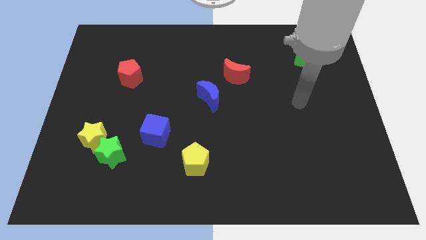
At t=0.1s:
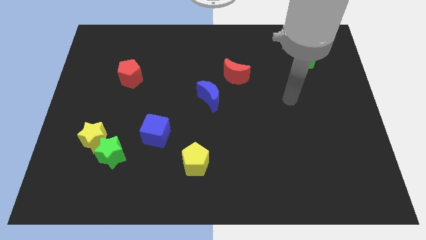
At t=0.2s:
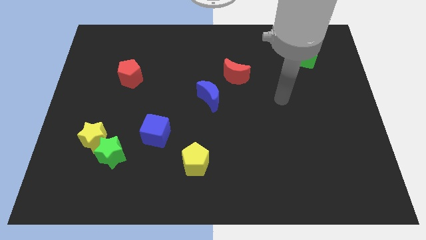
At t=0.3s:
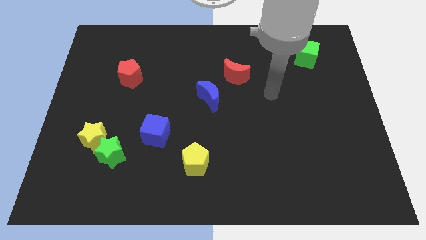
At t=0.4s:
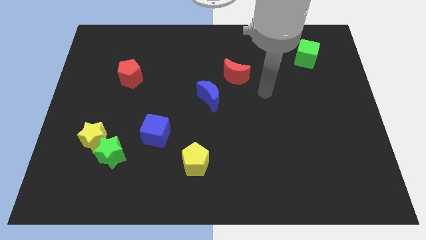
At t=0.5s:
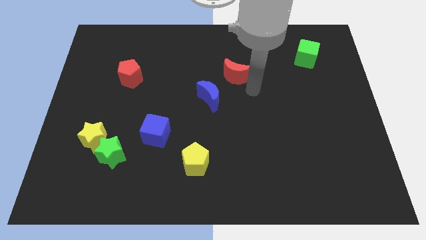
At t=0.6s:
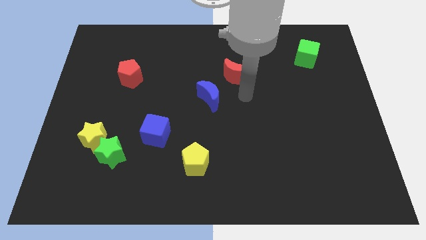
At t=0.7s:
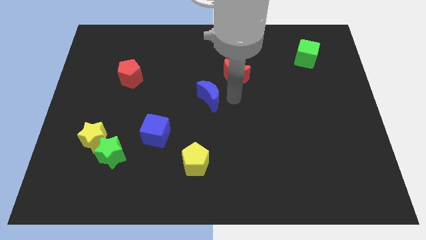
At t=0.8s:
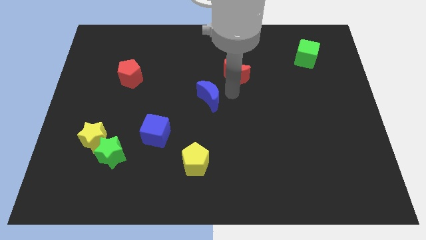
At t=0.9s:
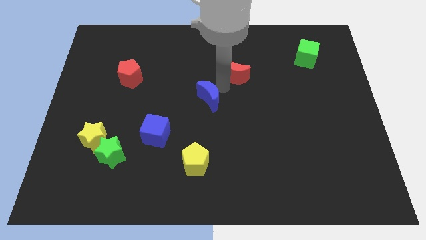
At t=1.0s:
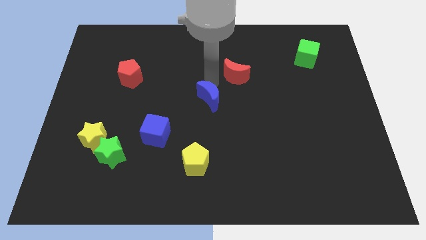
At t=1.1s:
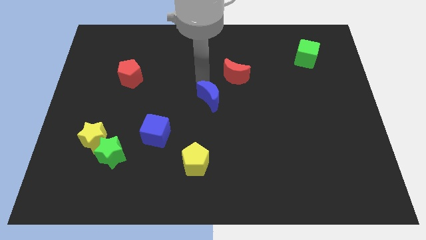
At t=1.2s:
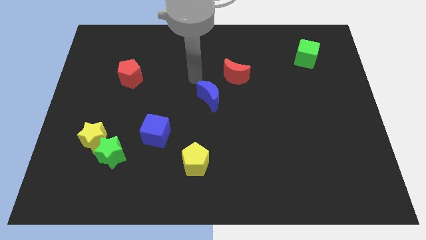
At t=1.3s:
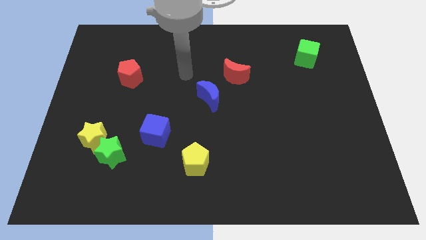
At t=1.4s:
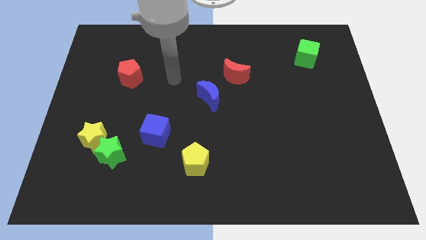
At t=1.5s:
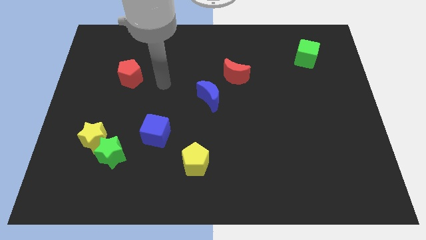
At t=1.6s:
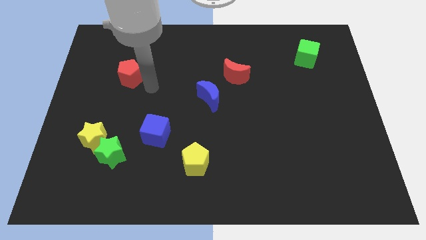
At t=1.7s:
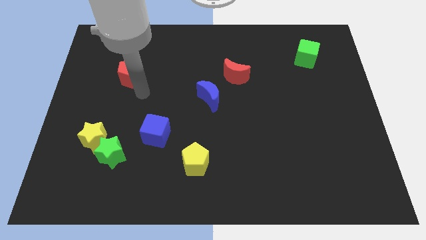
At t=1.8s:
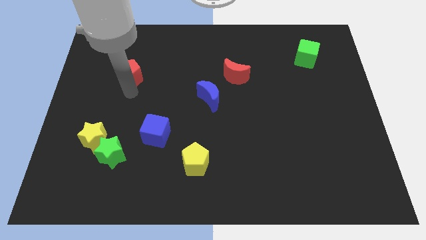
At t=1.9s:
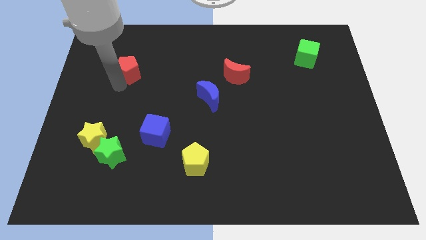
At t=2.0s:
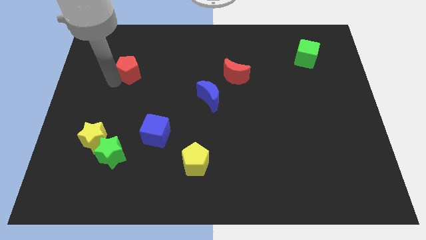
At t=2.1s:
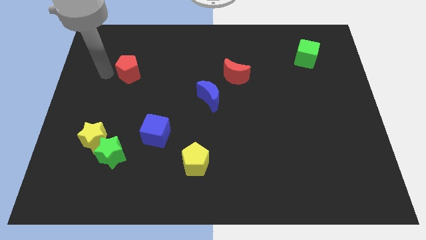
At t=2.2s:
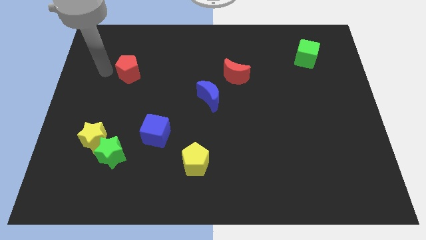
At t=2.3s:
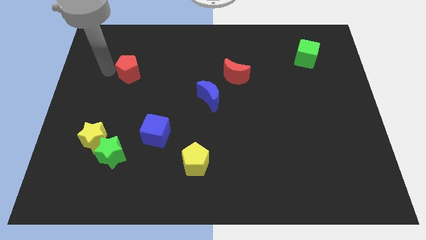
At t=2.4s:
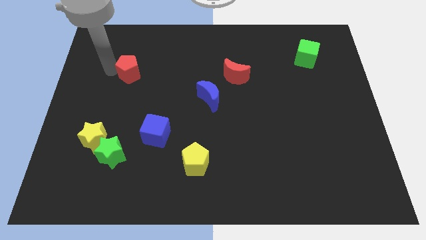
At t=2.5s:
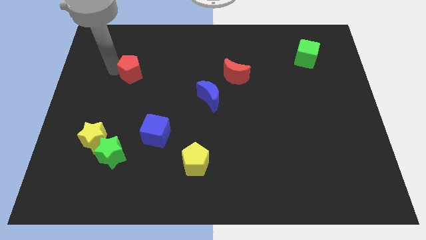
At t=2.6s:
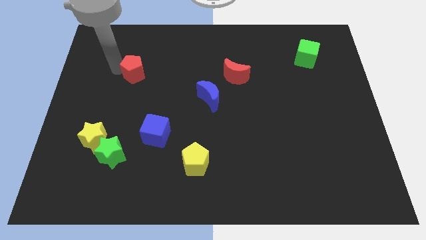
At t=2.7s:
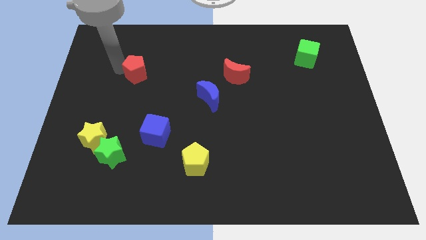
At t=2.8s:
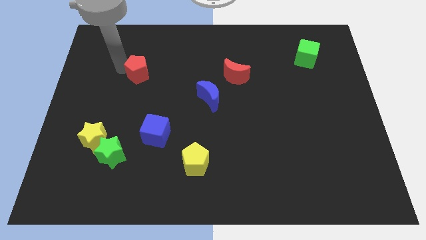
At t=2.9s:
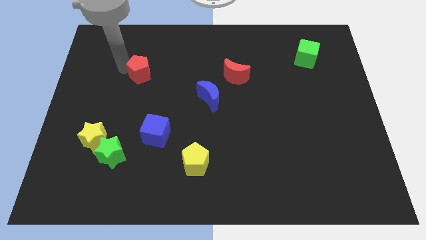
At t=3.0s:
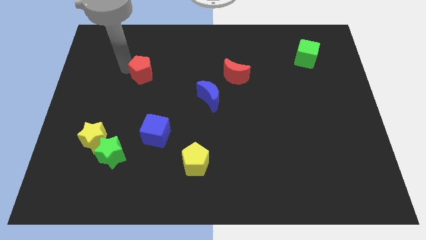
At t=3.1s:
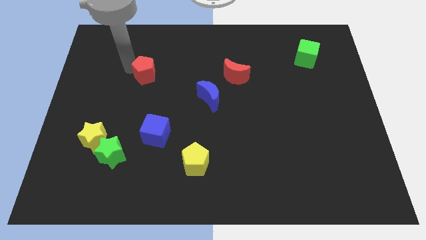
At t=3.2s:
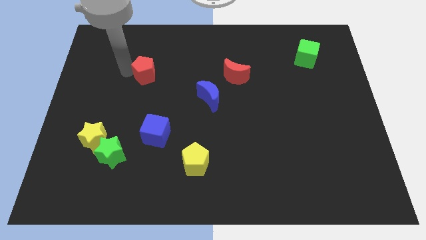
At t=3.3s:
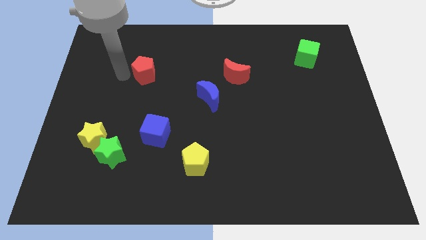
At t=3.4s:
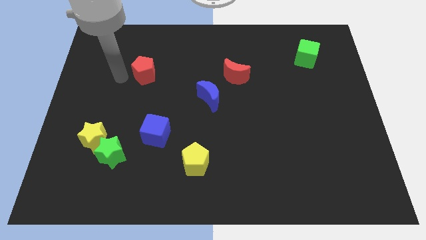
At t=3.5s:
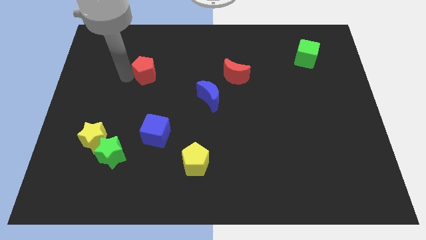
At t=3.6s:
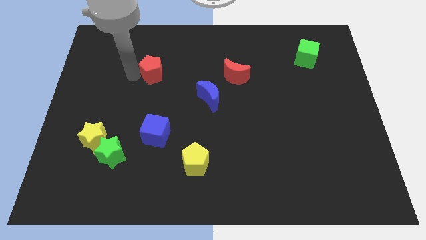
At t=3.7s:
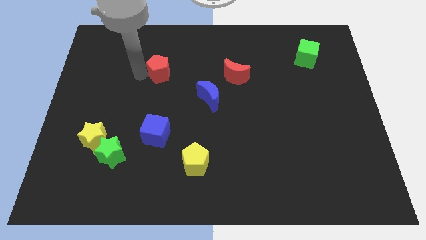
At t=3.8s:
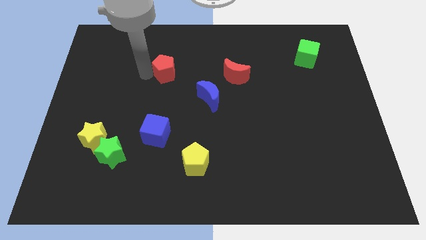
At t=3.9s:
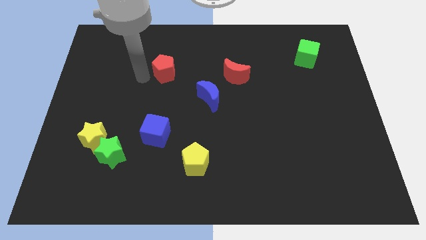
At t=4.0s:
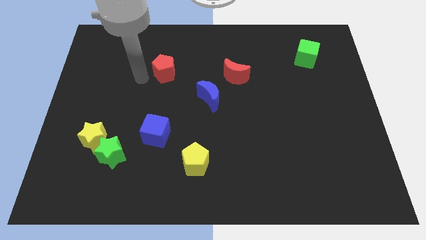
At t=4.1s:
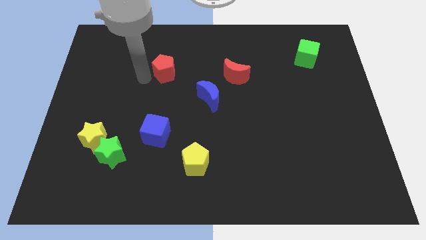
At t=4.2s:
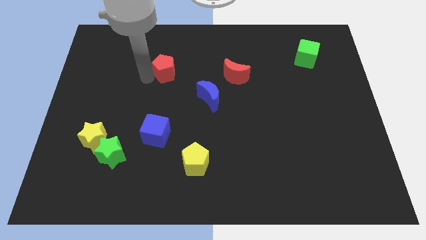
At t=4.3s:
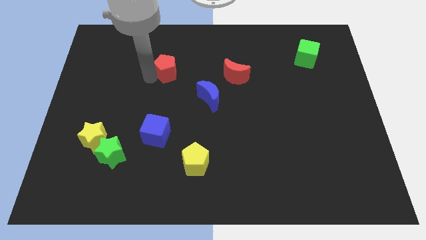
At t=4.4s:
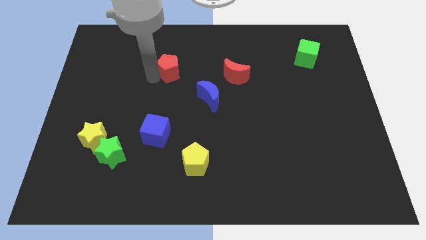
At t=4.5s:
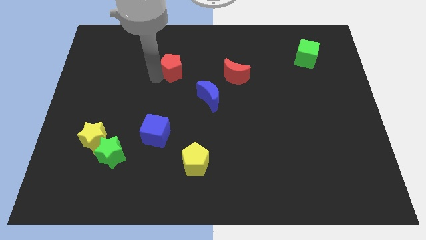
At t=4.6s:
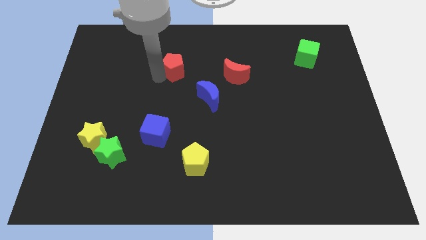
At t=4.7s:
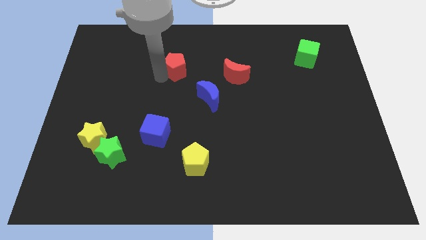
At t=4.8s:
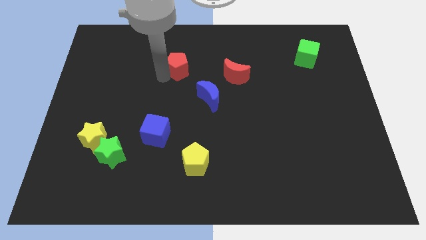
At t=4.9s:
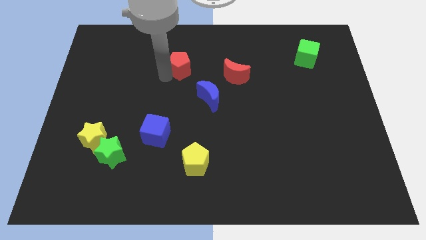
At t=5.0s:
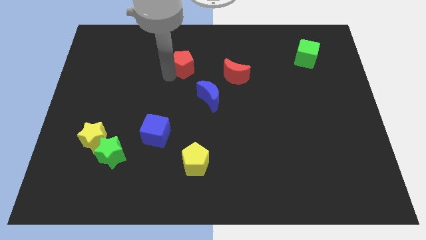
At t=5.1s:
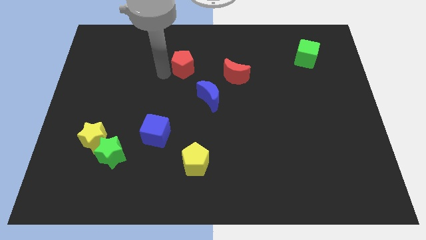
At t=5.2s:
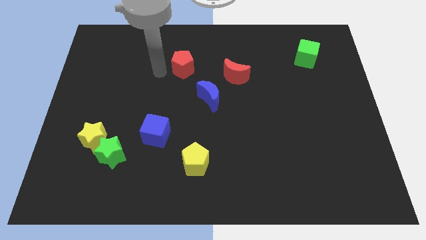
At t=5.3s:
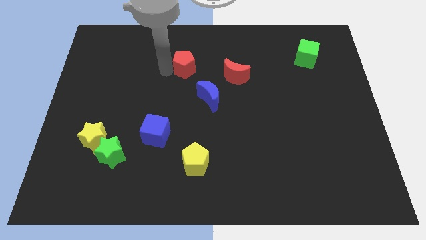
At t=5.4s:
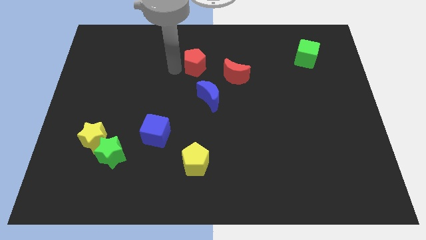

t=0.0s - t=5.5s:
put the red pentagon to the top left side of the red moon

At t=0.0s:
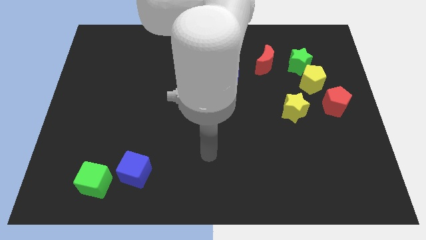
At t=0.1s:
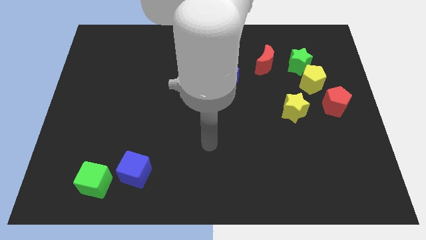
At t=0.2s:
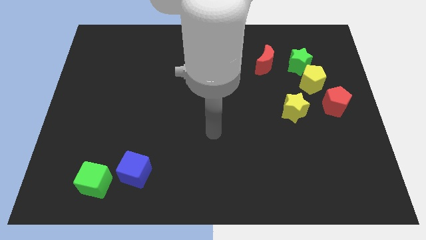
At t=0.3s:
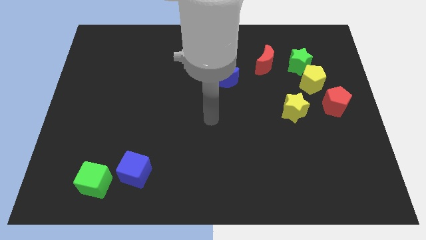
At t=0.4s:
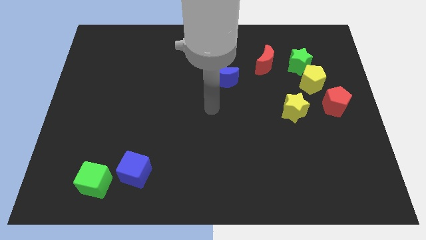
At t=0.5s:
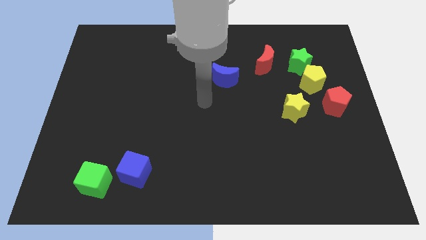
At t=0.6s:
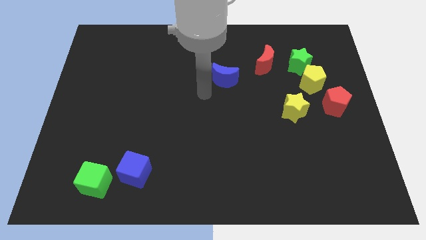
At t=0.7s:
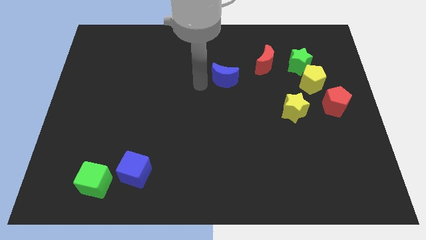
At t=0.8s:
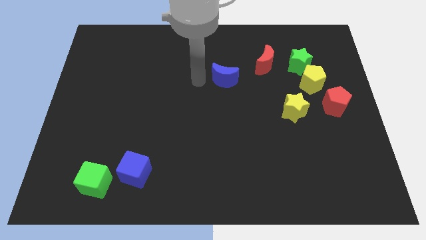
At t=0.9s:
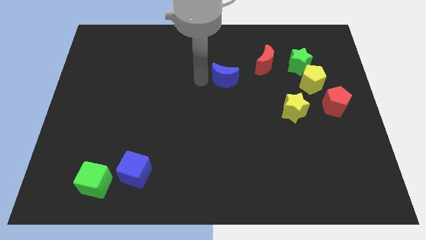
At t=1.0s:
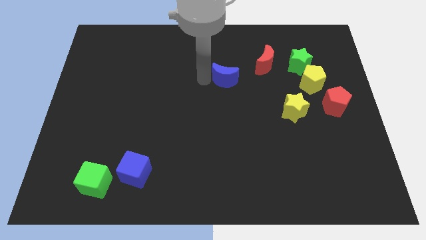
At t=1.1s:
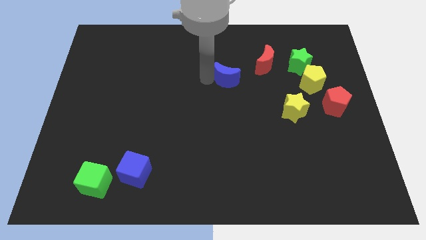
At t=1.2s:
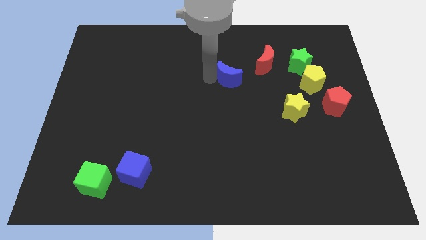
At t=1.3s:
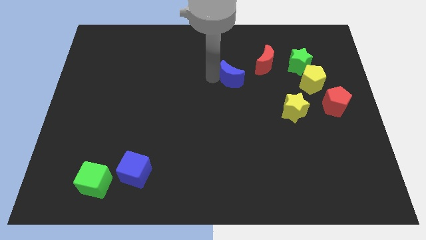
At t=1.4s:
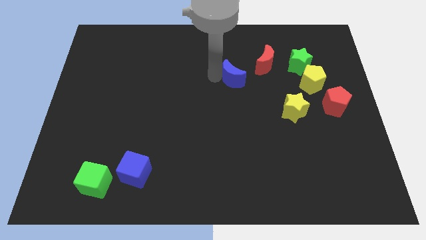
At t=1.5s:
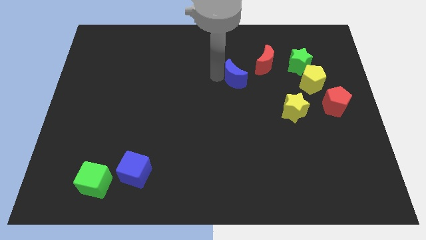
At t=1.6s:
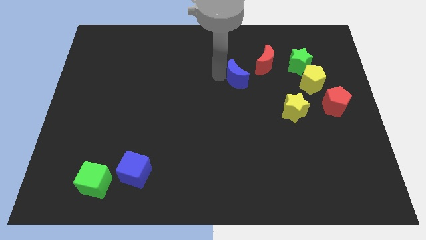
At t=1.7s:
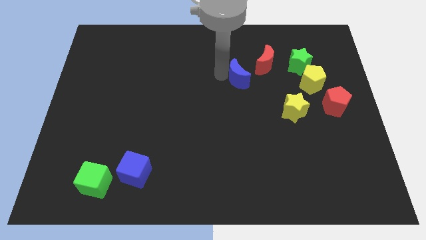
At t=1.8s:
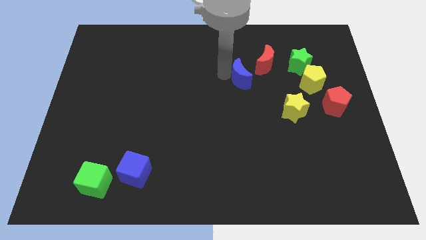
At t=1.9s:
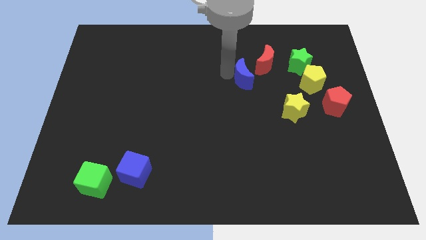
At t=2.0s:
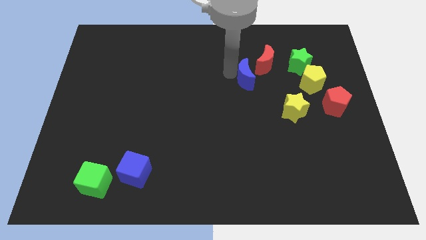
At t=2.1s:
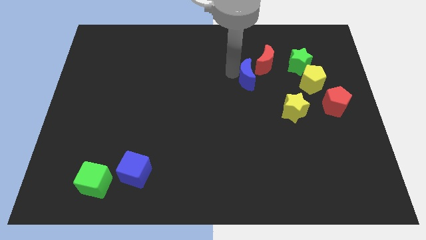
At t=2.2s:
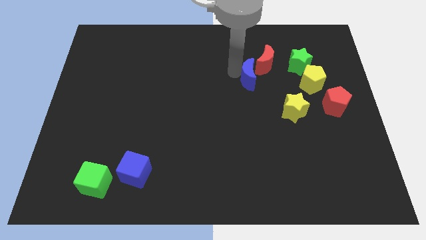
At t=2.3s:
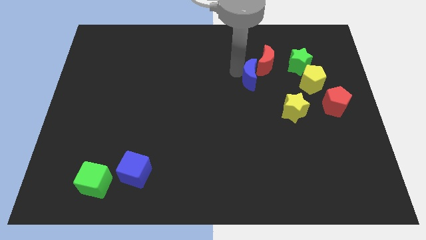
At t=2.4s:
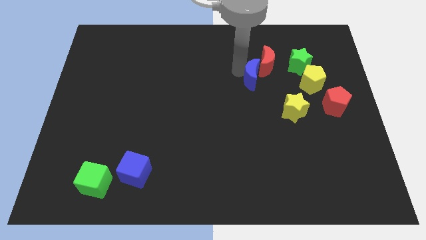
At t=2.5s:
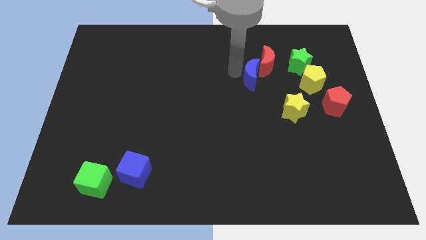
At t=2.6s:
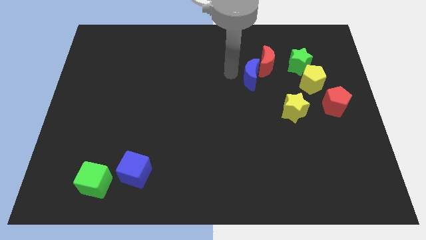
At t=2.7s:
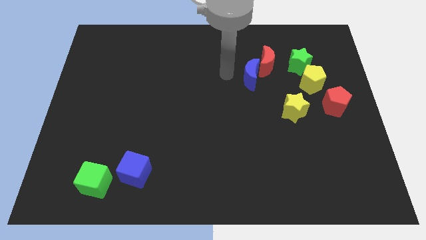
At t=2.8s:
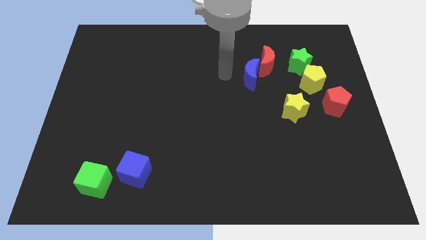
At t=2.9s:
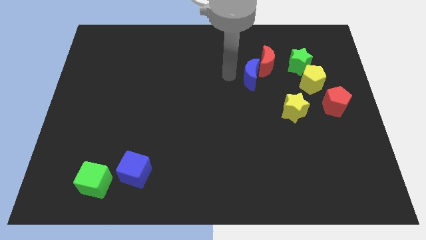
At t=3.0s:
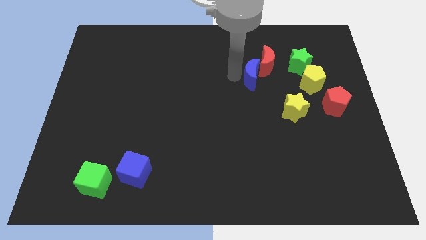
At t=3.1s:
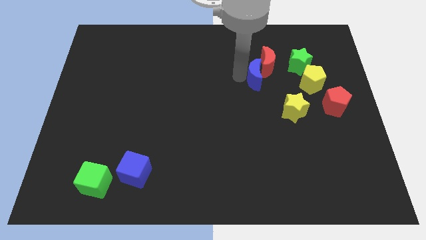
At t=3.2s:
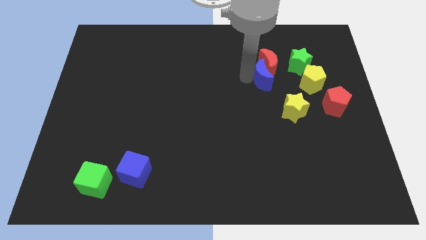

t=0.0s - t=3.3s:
slide the blue moon to the bottom left side of the green star
